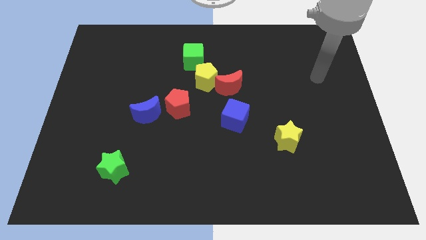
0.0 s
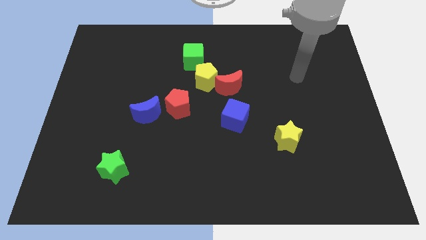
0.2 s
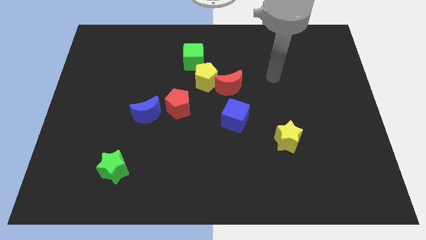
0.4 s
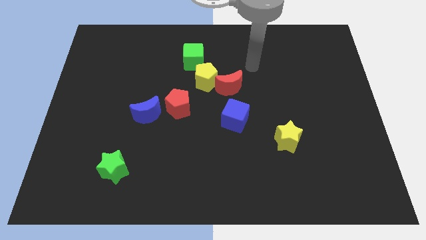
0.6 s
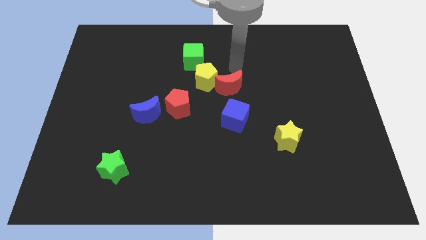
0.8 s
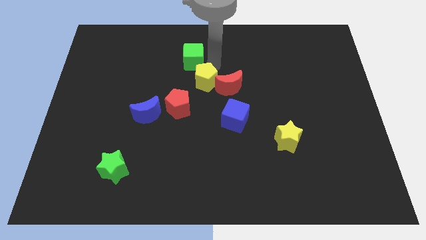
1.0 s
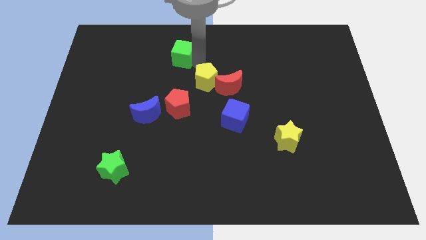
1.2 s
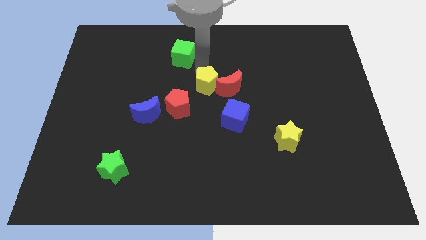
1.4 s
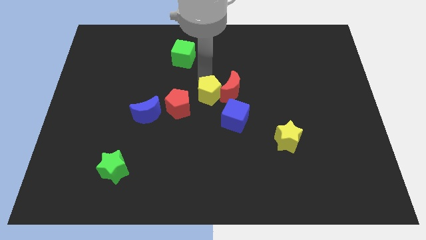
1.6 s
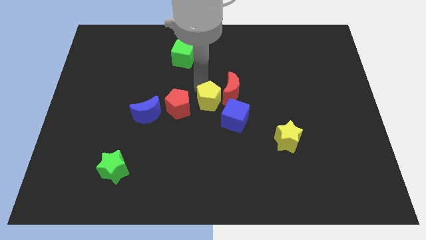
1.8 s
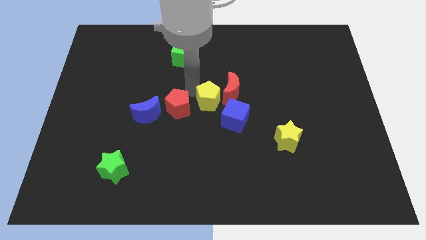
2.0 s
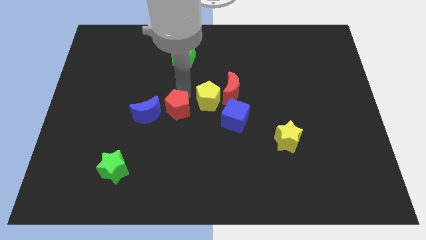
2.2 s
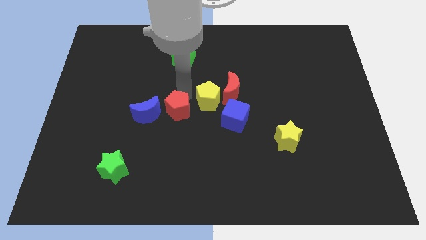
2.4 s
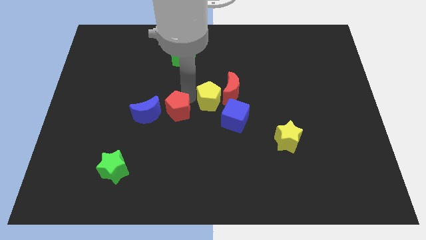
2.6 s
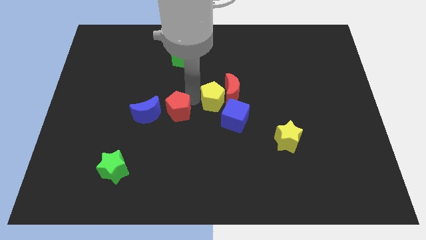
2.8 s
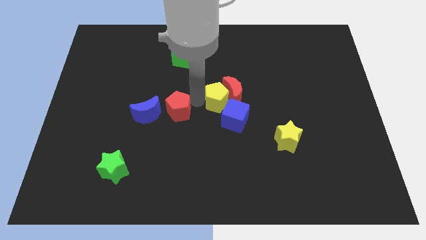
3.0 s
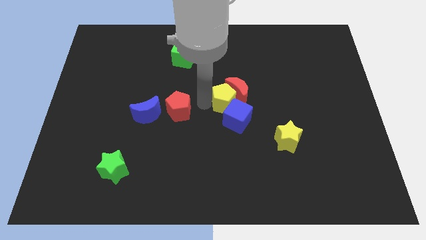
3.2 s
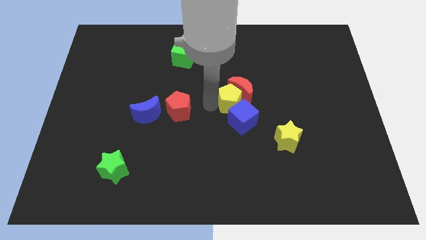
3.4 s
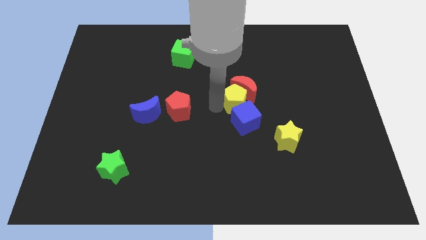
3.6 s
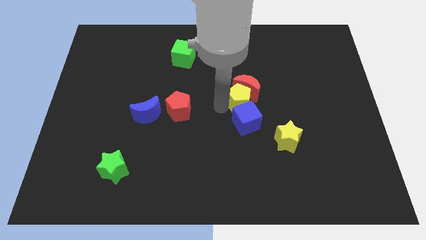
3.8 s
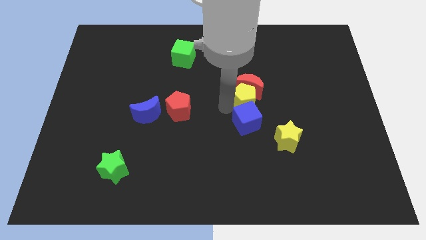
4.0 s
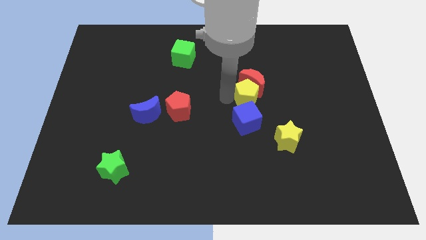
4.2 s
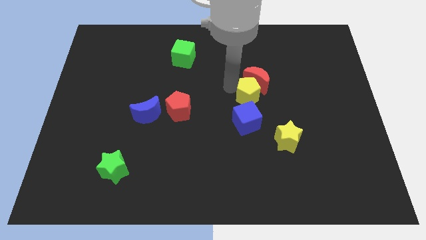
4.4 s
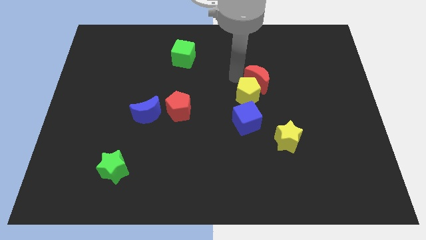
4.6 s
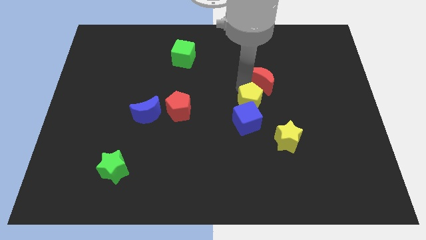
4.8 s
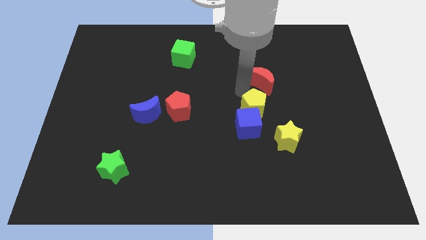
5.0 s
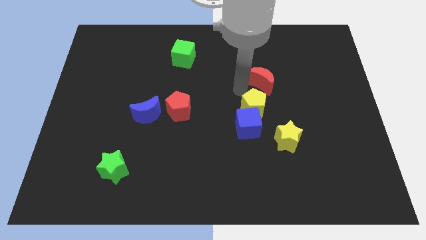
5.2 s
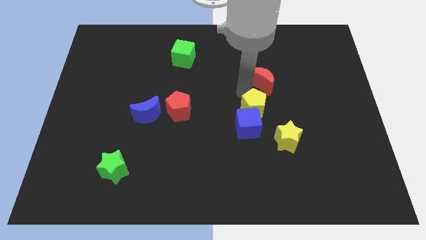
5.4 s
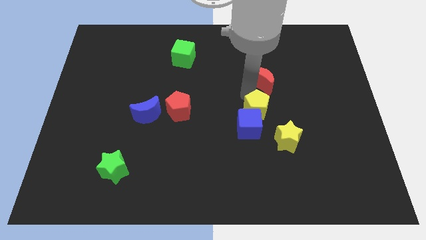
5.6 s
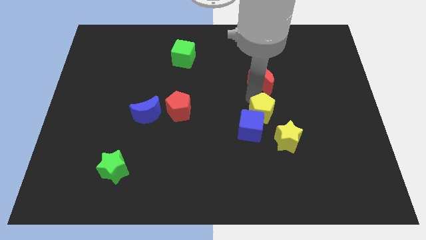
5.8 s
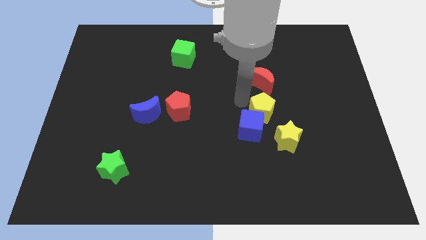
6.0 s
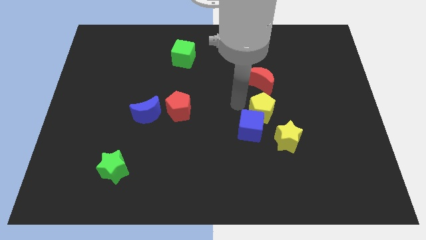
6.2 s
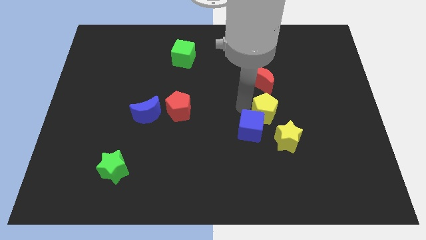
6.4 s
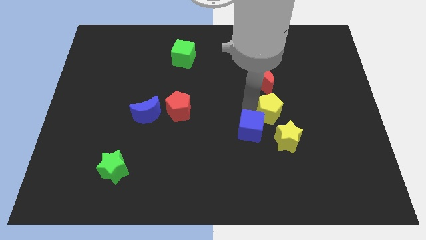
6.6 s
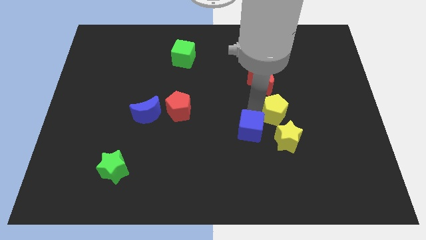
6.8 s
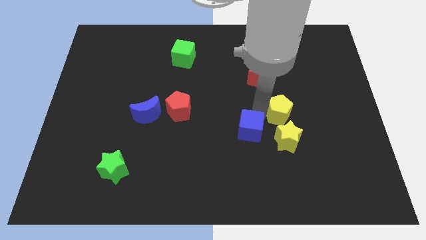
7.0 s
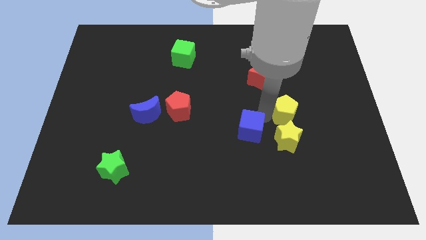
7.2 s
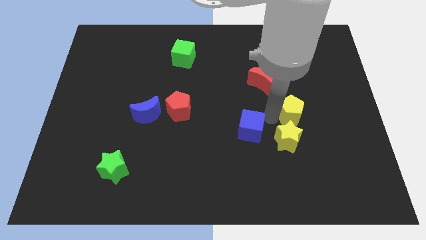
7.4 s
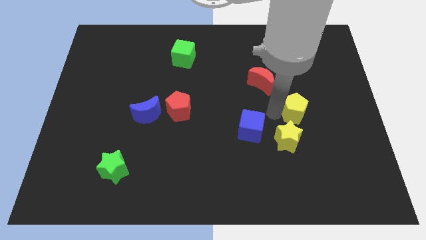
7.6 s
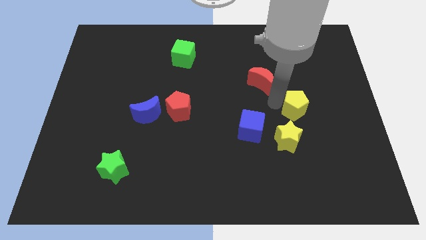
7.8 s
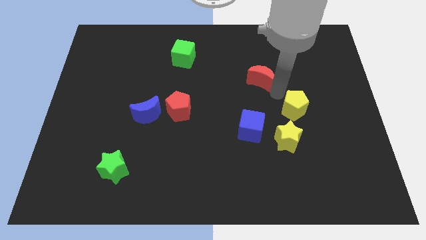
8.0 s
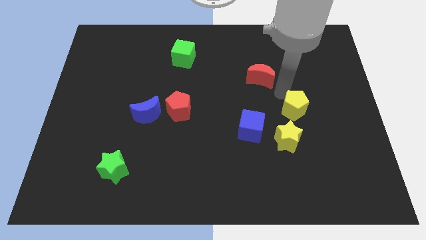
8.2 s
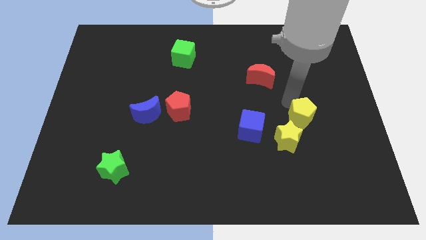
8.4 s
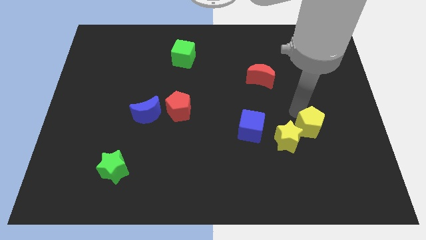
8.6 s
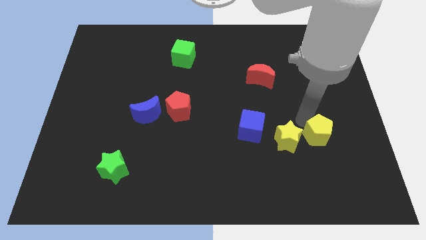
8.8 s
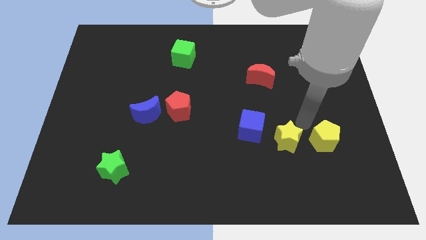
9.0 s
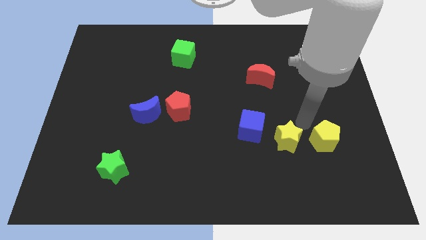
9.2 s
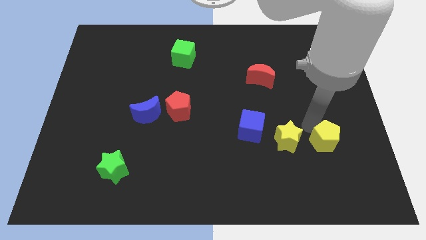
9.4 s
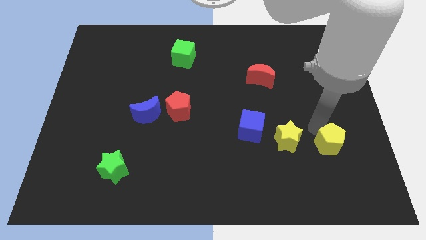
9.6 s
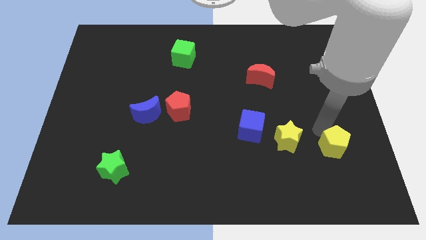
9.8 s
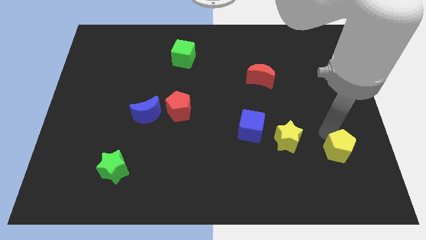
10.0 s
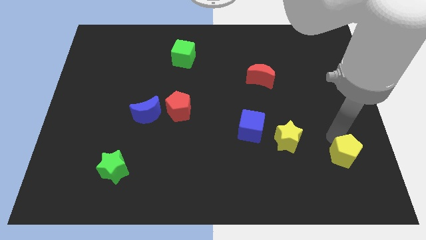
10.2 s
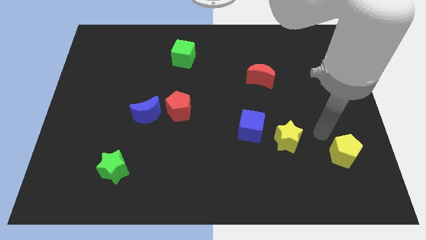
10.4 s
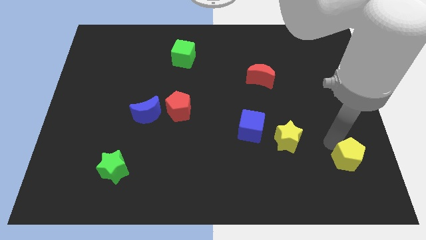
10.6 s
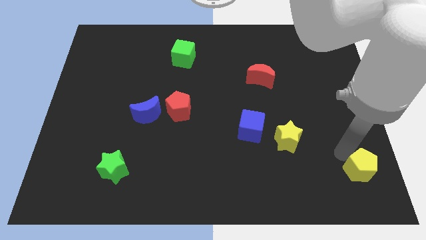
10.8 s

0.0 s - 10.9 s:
push the yellow pentagon to the lower right corner
